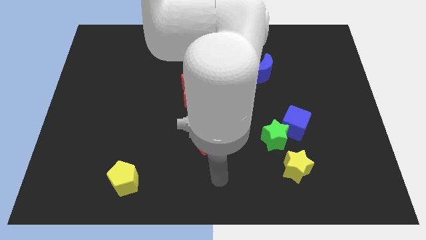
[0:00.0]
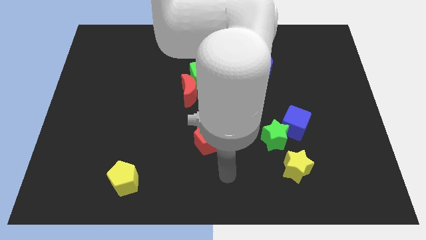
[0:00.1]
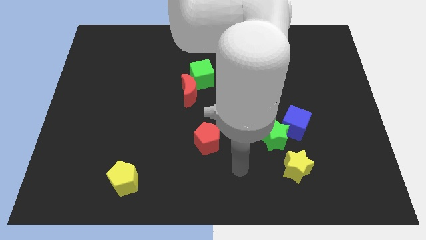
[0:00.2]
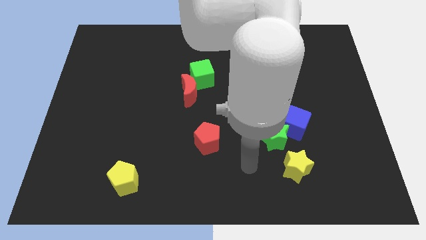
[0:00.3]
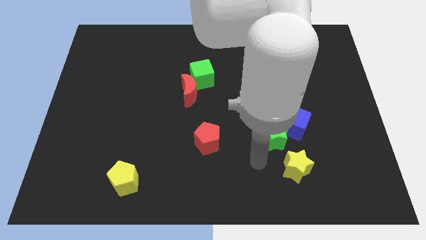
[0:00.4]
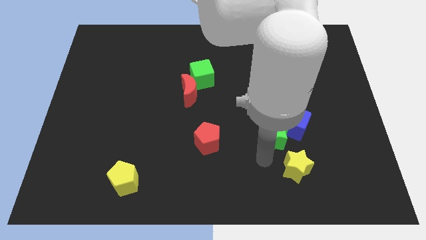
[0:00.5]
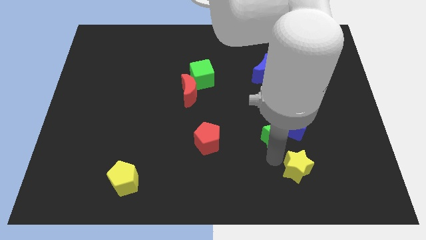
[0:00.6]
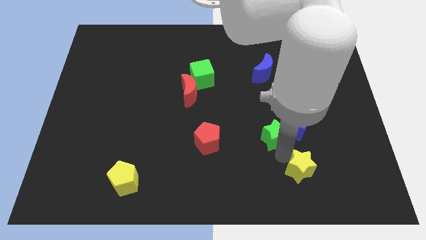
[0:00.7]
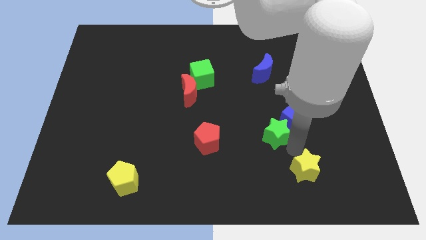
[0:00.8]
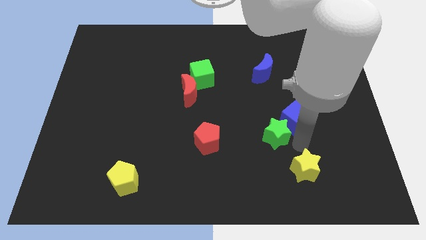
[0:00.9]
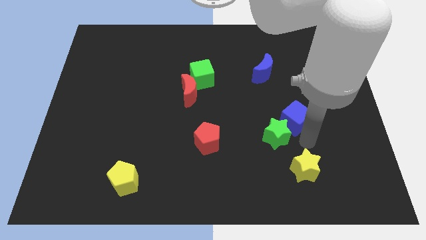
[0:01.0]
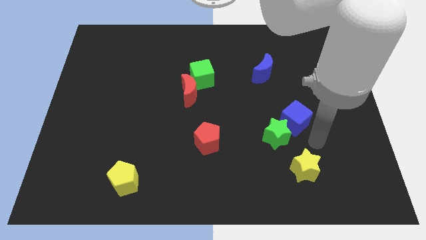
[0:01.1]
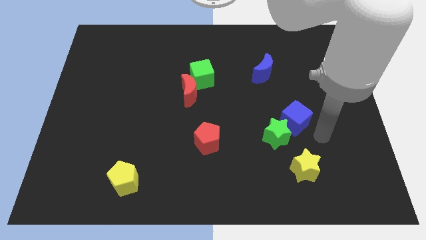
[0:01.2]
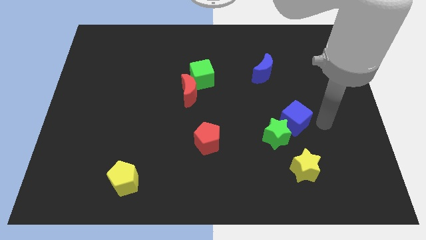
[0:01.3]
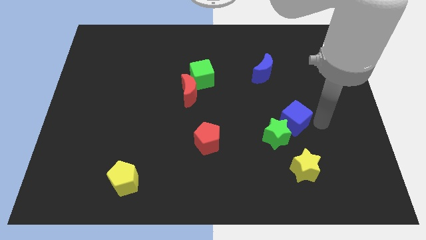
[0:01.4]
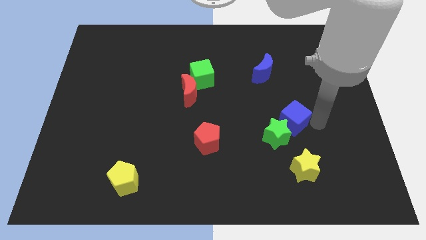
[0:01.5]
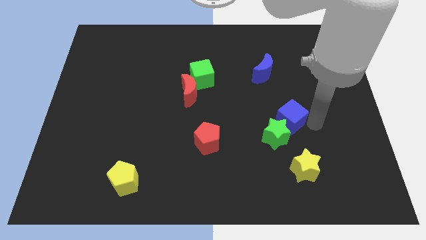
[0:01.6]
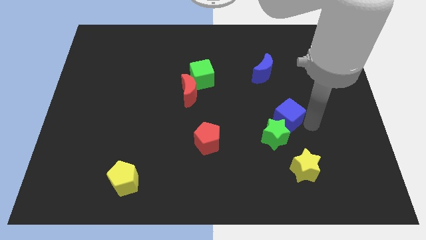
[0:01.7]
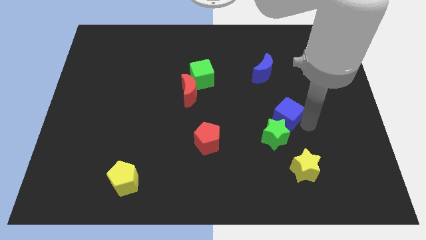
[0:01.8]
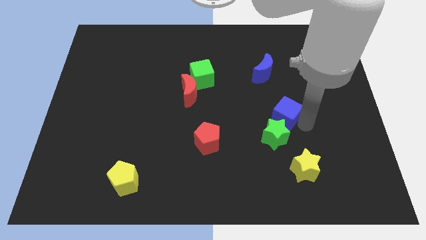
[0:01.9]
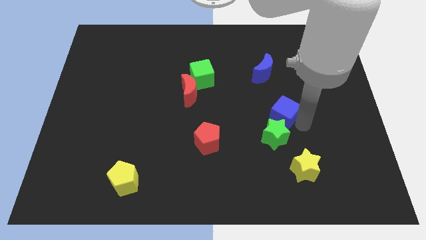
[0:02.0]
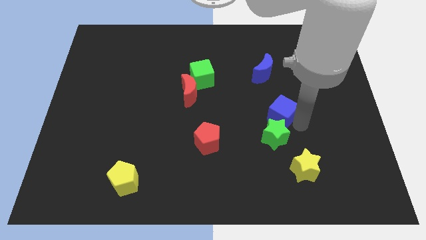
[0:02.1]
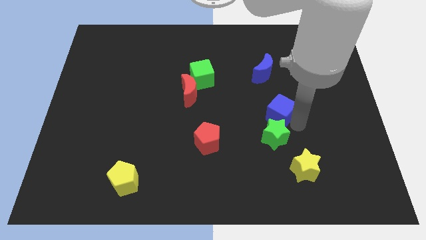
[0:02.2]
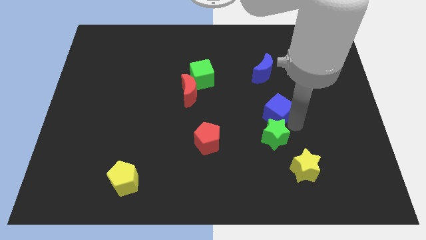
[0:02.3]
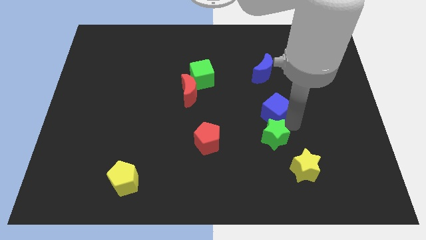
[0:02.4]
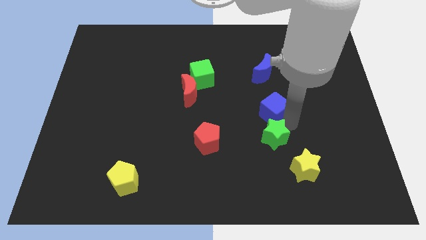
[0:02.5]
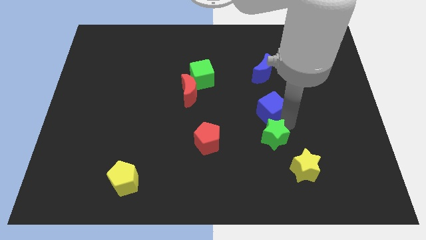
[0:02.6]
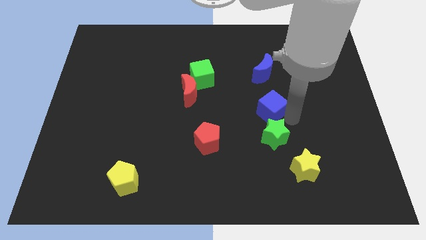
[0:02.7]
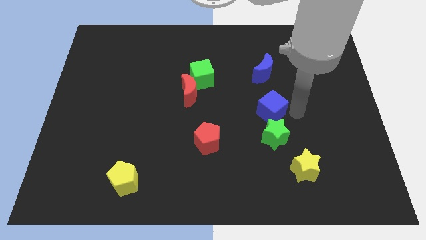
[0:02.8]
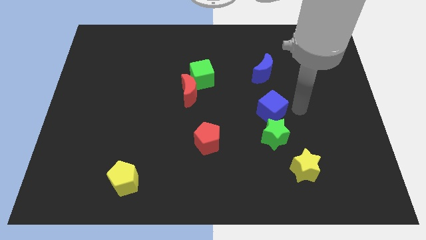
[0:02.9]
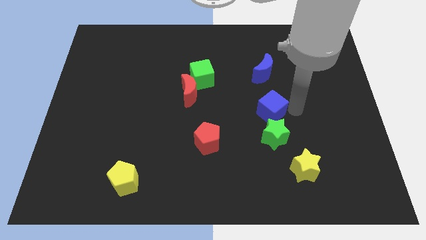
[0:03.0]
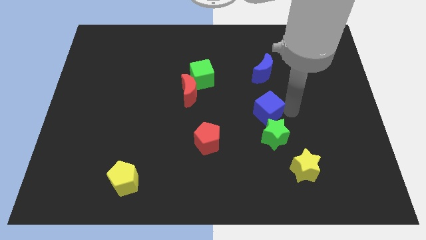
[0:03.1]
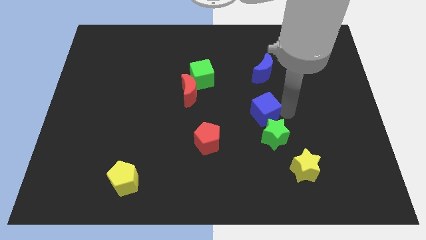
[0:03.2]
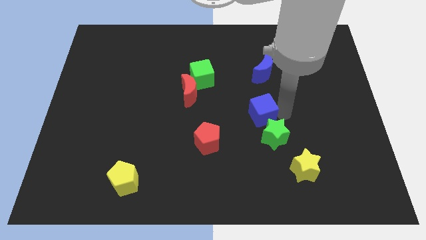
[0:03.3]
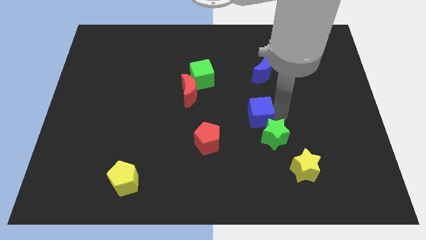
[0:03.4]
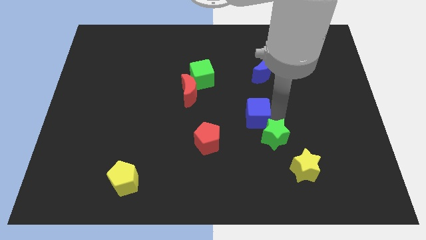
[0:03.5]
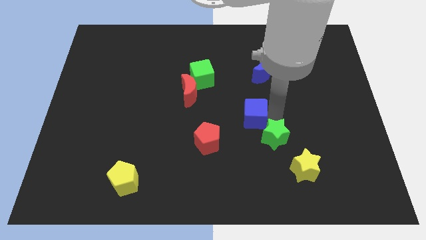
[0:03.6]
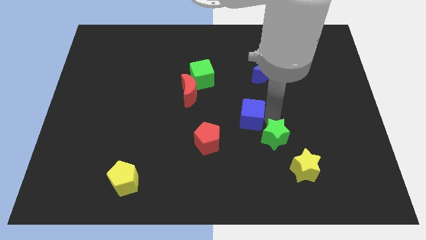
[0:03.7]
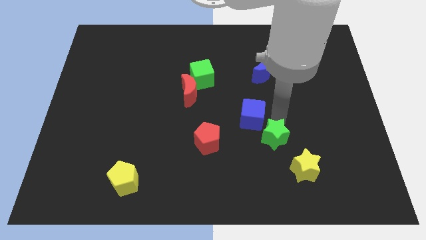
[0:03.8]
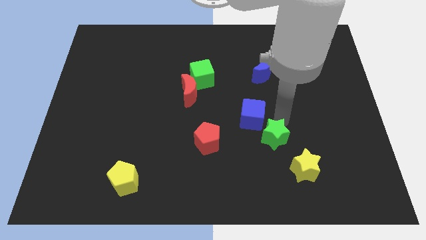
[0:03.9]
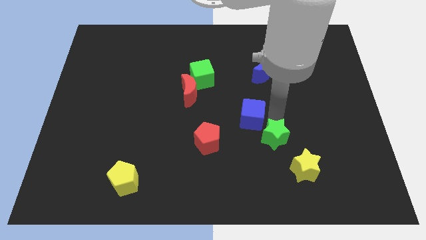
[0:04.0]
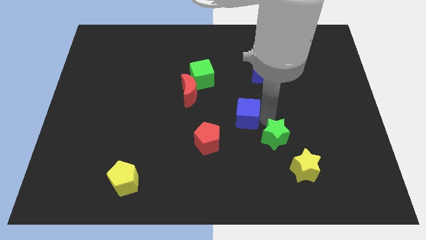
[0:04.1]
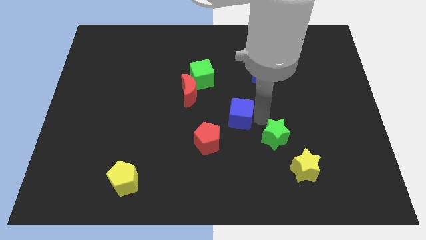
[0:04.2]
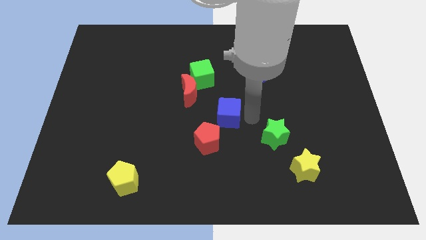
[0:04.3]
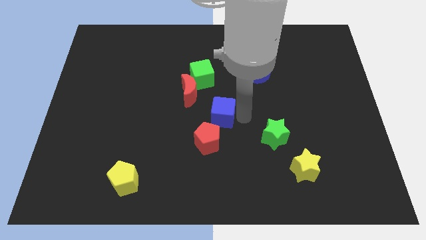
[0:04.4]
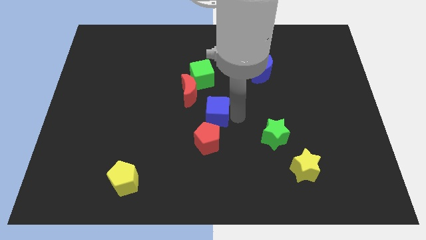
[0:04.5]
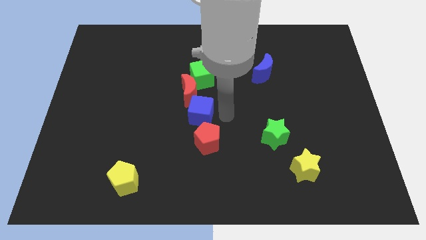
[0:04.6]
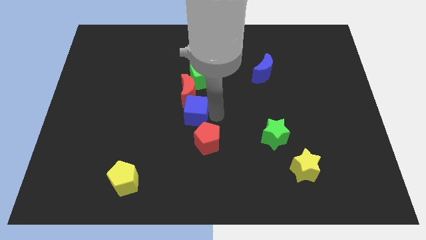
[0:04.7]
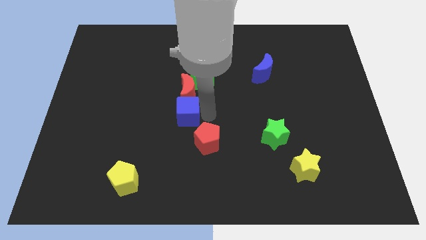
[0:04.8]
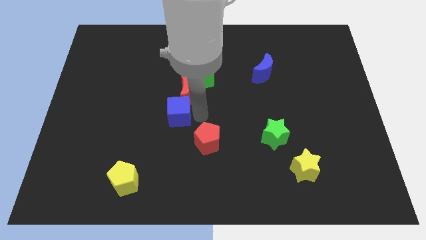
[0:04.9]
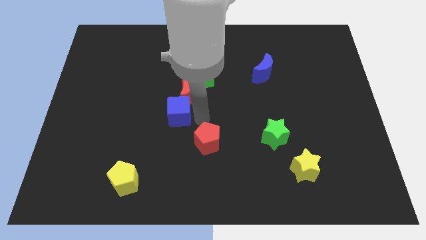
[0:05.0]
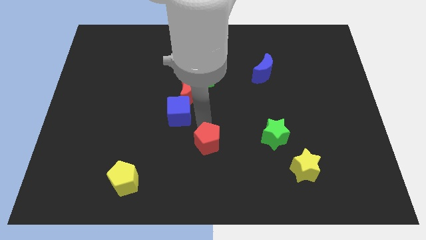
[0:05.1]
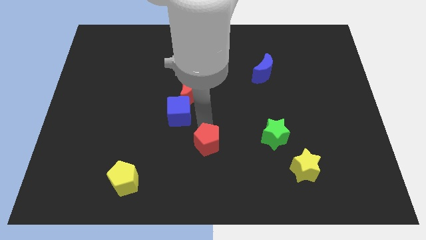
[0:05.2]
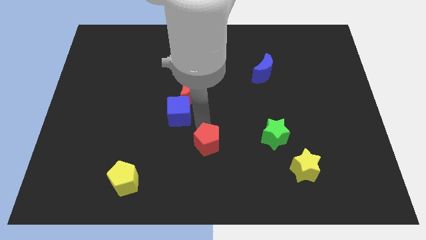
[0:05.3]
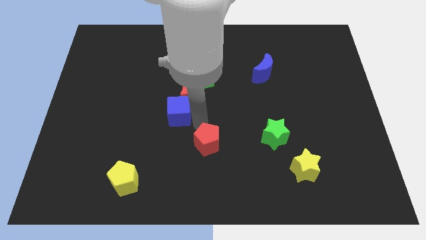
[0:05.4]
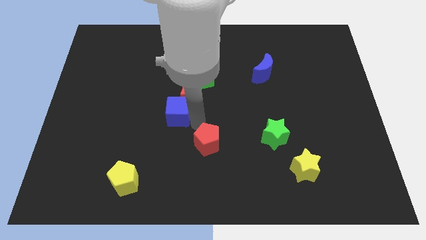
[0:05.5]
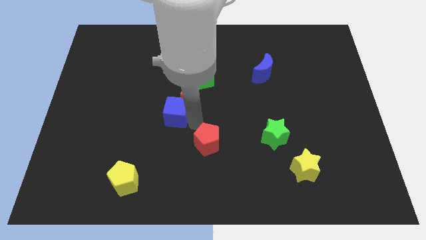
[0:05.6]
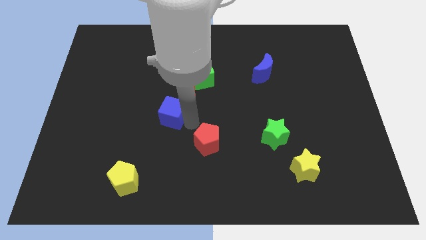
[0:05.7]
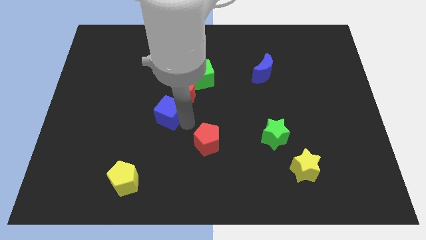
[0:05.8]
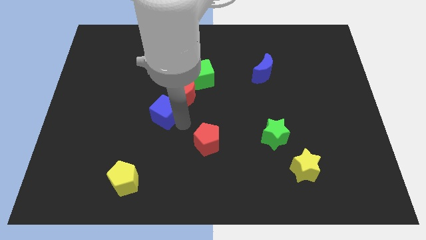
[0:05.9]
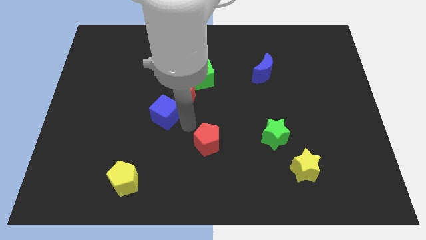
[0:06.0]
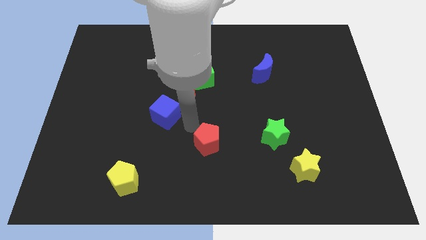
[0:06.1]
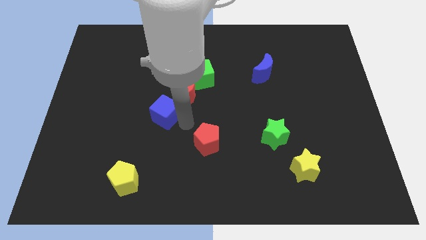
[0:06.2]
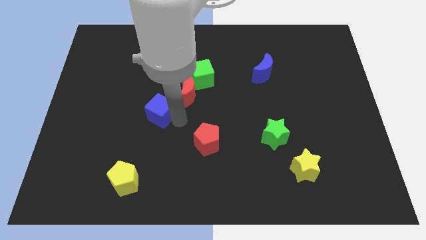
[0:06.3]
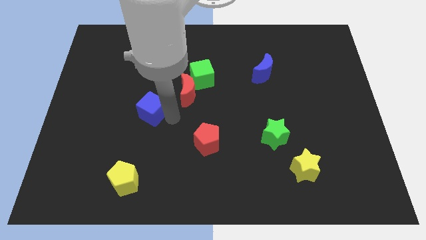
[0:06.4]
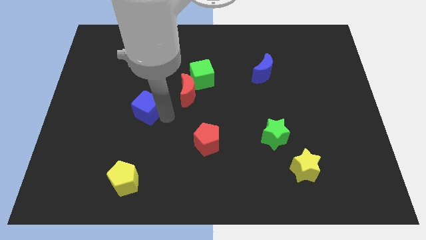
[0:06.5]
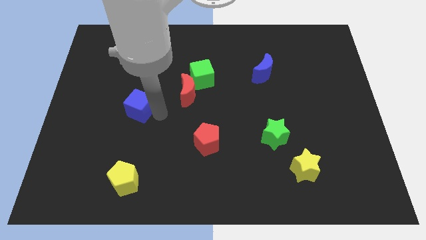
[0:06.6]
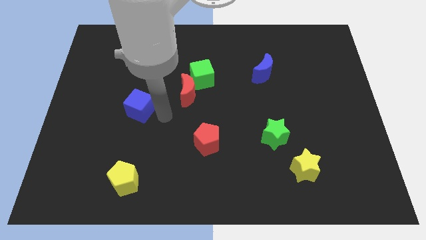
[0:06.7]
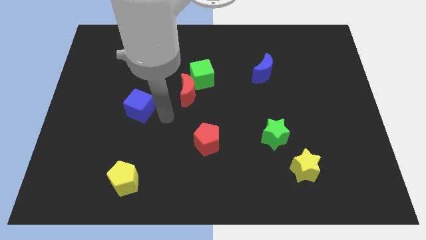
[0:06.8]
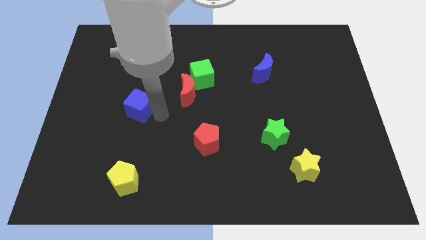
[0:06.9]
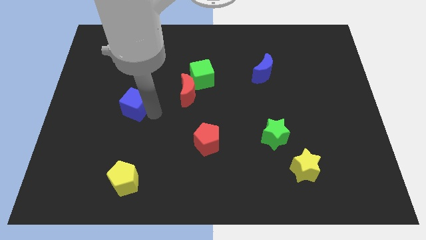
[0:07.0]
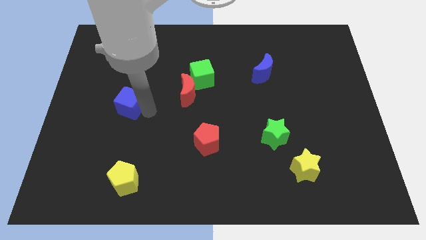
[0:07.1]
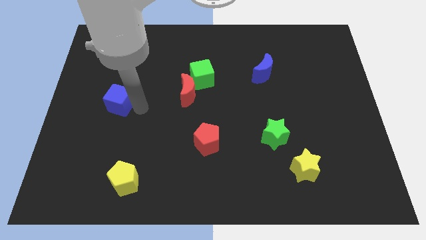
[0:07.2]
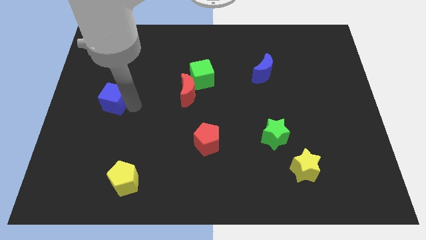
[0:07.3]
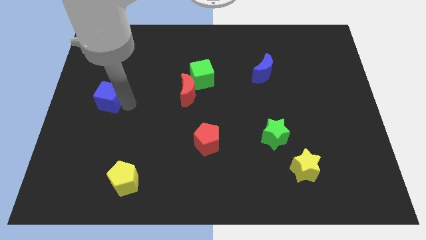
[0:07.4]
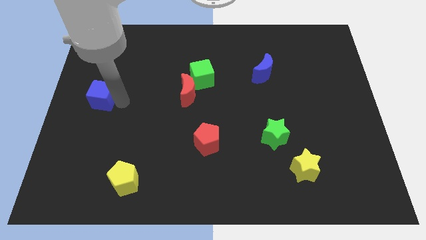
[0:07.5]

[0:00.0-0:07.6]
push the blue cube to the left side
